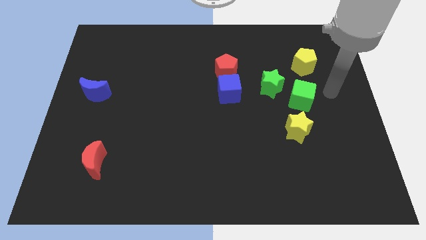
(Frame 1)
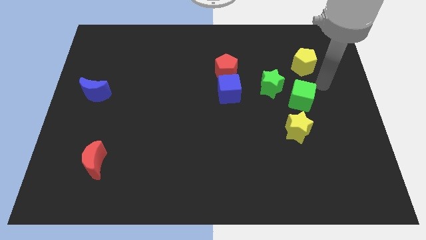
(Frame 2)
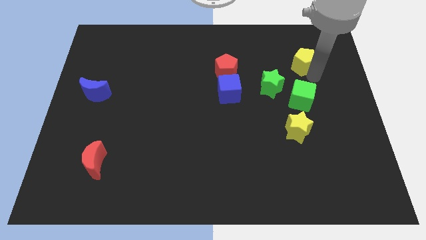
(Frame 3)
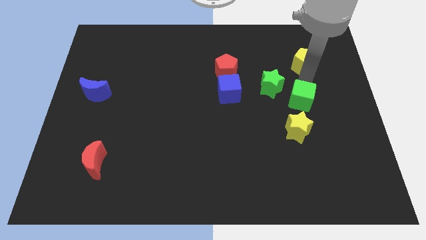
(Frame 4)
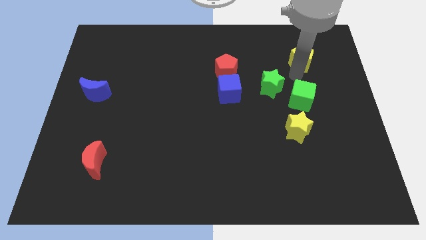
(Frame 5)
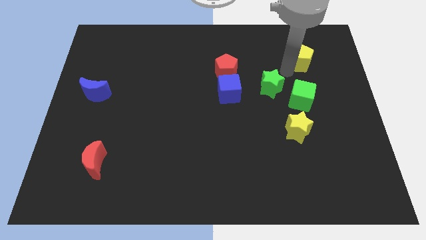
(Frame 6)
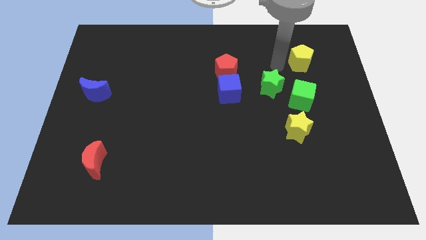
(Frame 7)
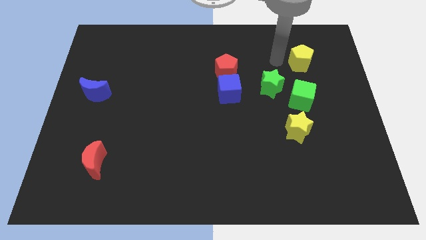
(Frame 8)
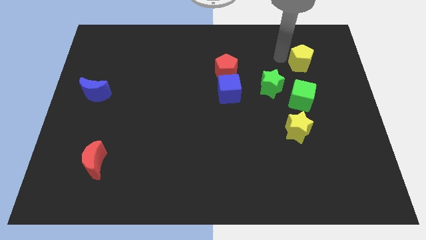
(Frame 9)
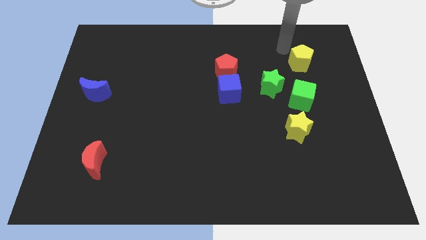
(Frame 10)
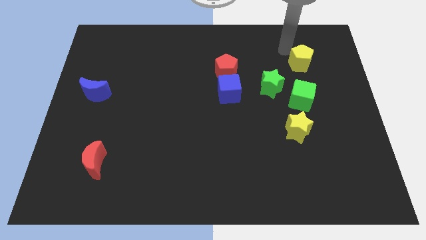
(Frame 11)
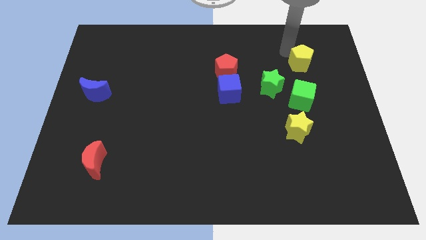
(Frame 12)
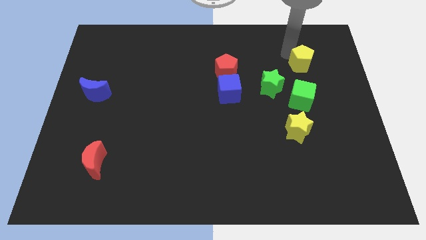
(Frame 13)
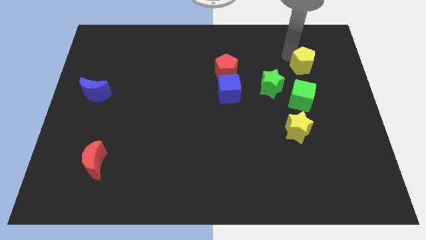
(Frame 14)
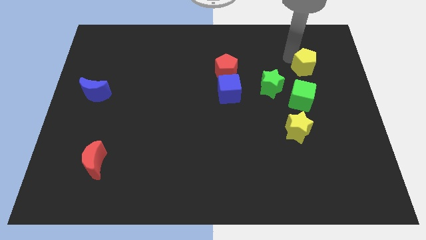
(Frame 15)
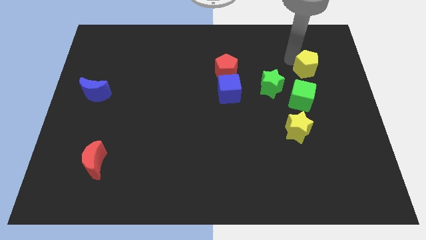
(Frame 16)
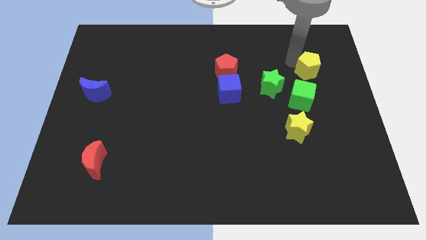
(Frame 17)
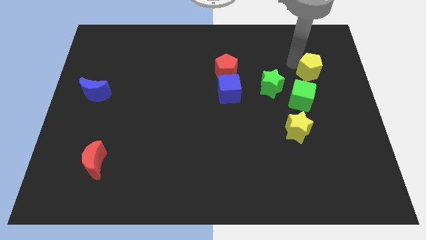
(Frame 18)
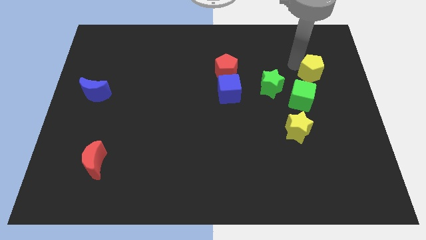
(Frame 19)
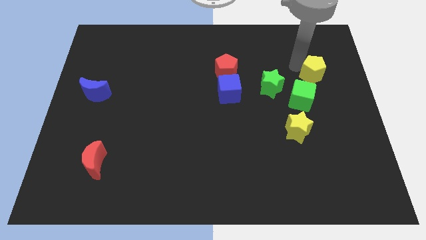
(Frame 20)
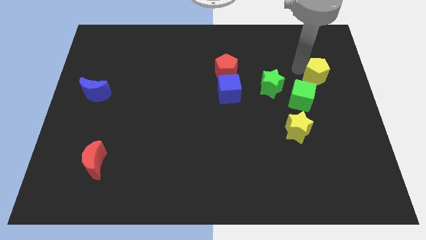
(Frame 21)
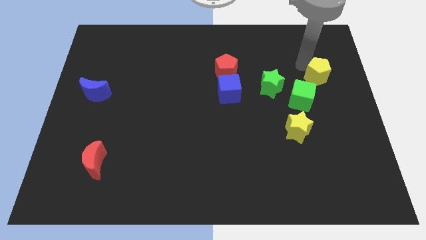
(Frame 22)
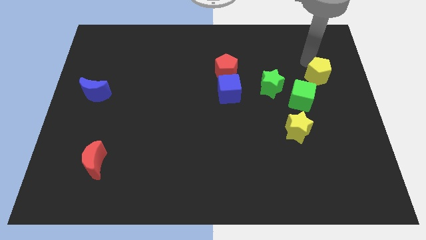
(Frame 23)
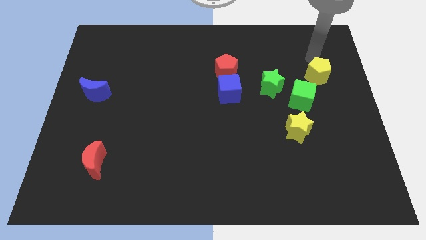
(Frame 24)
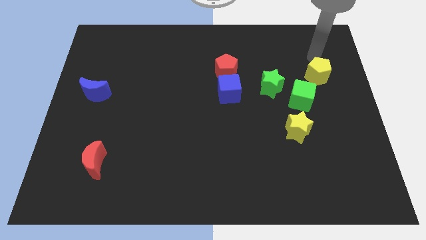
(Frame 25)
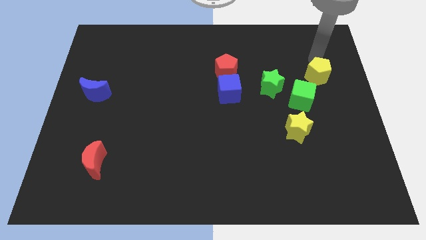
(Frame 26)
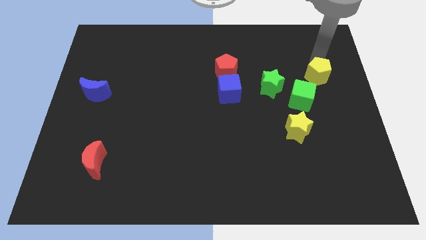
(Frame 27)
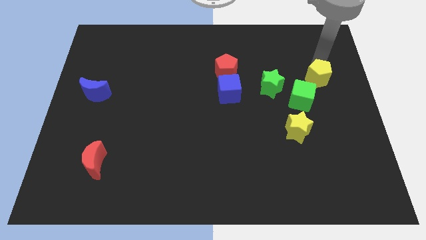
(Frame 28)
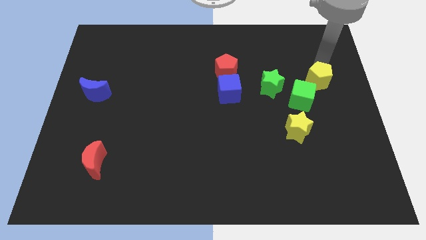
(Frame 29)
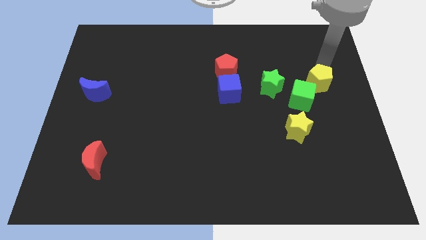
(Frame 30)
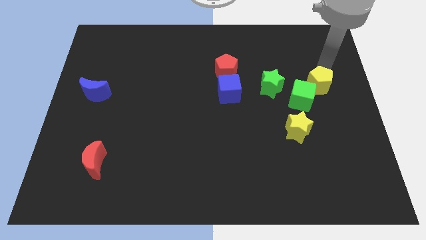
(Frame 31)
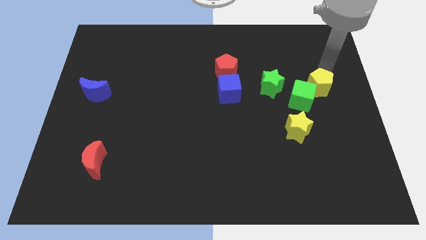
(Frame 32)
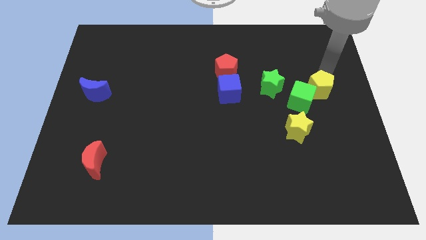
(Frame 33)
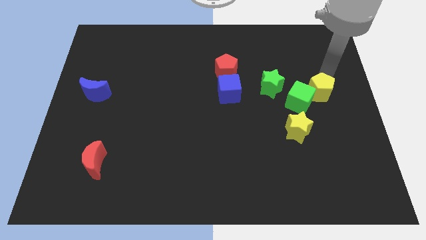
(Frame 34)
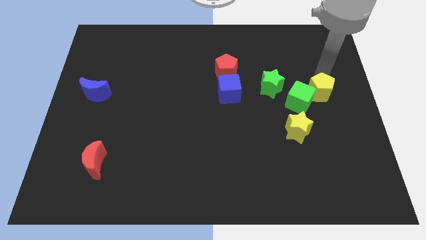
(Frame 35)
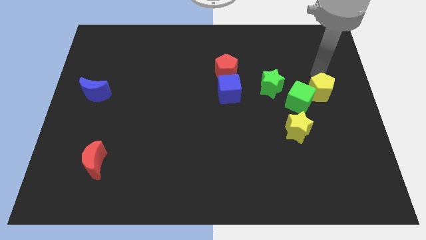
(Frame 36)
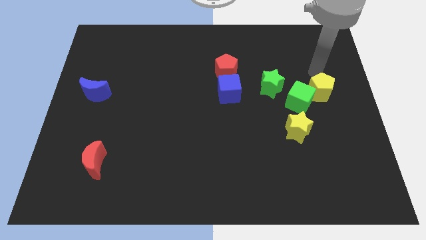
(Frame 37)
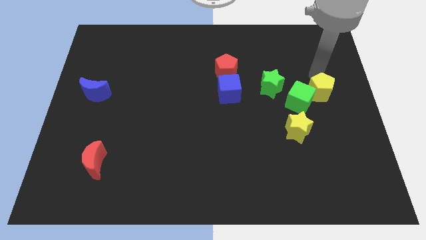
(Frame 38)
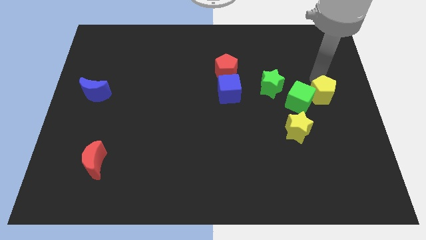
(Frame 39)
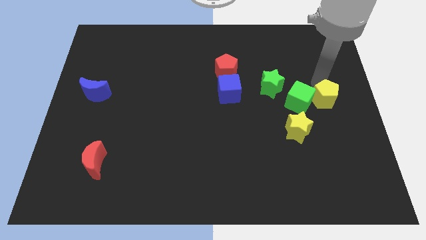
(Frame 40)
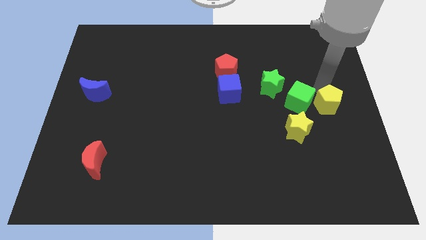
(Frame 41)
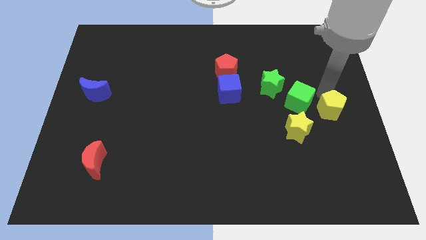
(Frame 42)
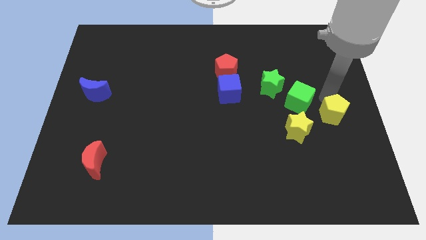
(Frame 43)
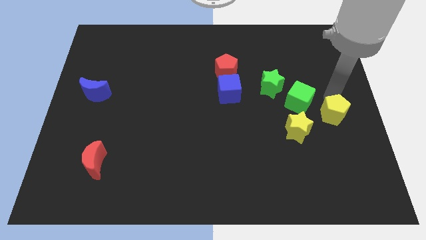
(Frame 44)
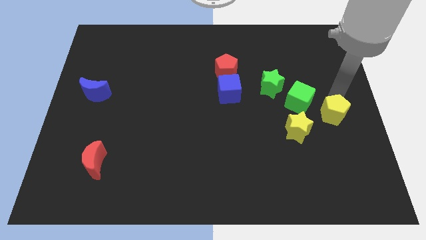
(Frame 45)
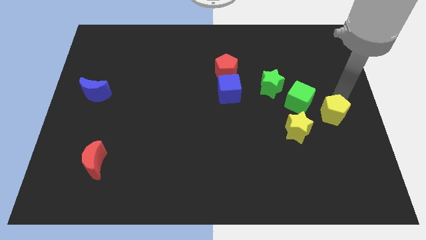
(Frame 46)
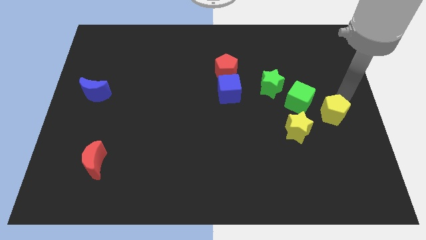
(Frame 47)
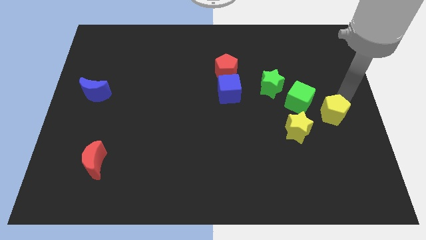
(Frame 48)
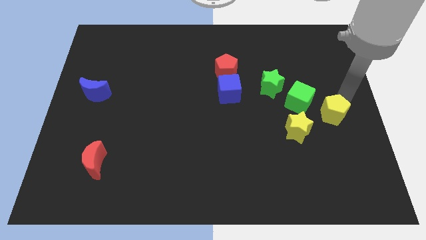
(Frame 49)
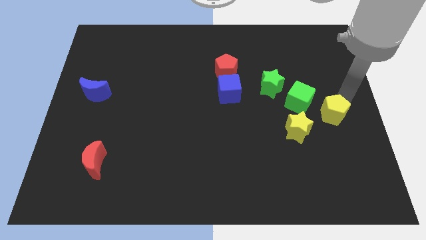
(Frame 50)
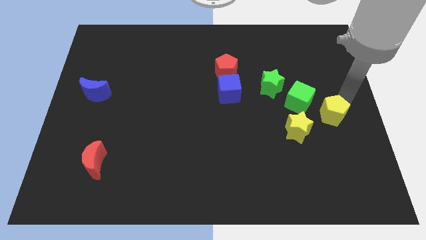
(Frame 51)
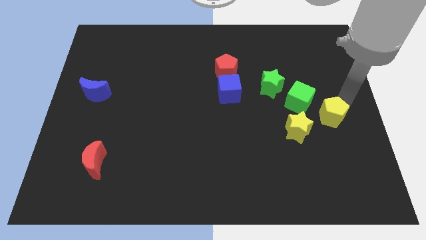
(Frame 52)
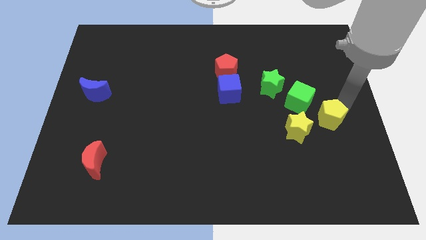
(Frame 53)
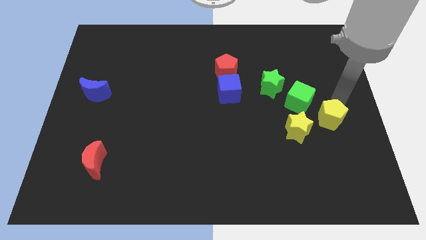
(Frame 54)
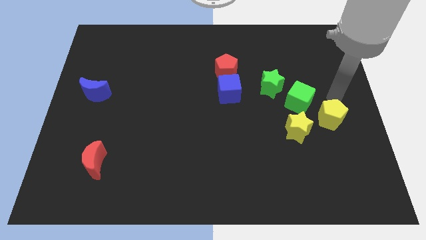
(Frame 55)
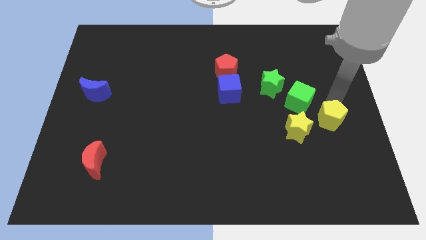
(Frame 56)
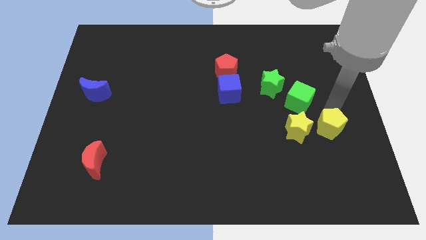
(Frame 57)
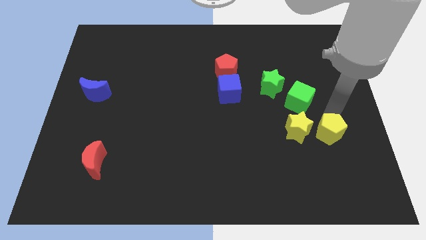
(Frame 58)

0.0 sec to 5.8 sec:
push the yellow pentagon down

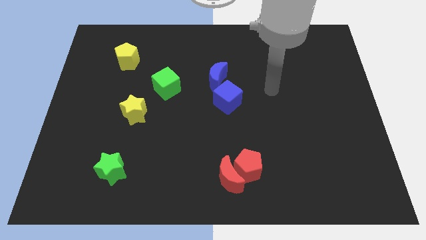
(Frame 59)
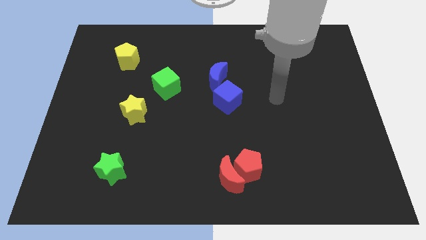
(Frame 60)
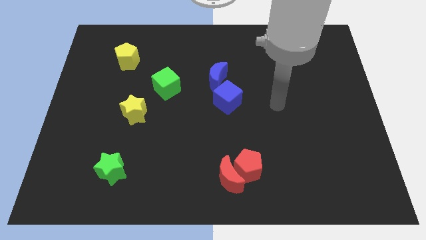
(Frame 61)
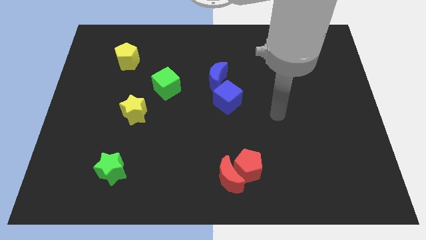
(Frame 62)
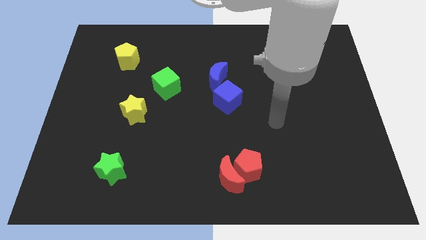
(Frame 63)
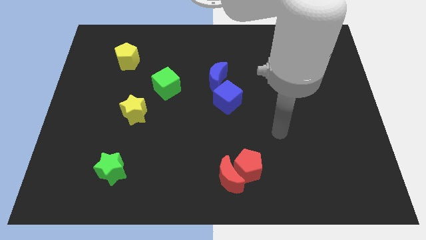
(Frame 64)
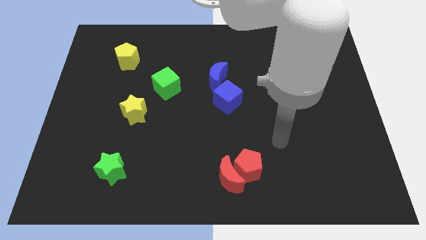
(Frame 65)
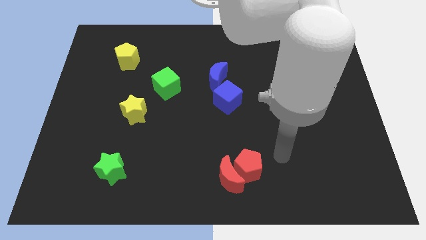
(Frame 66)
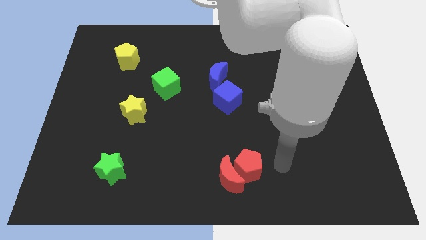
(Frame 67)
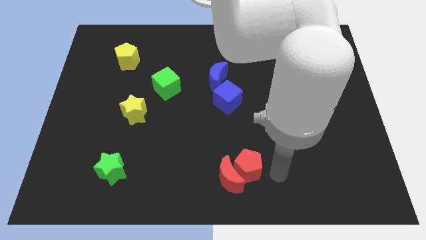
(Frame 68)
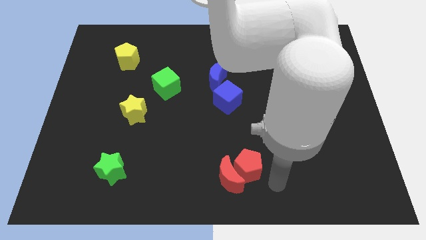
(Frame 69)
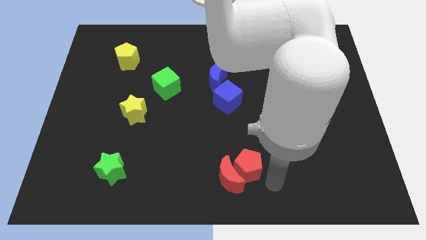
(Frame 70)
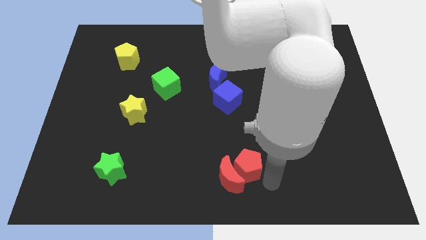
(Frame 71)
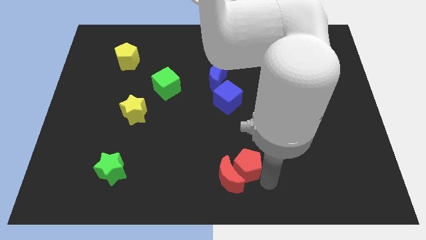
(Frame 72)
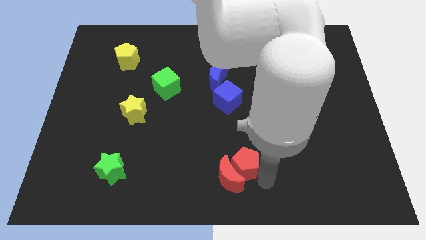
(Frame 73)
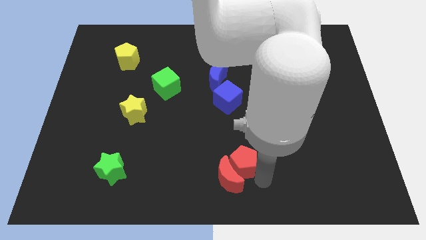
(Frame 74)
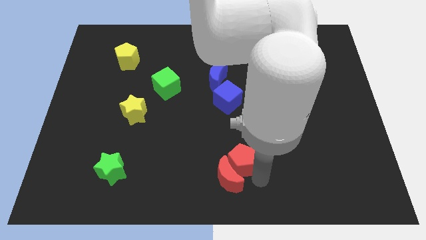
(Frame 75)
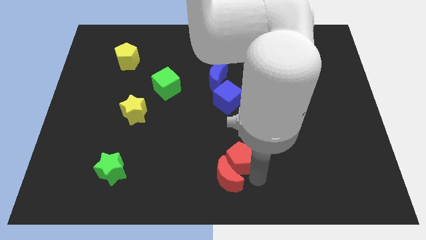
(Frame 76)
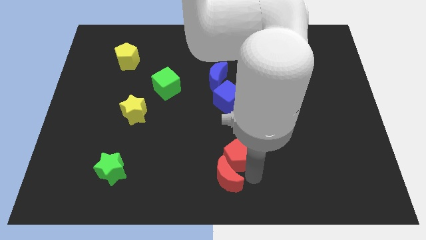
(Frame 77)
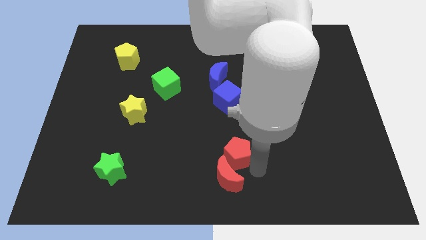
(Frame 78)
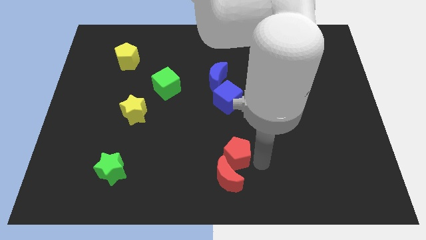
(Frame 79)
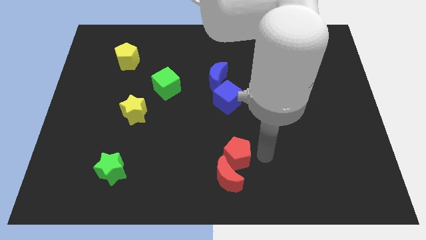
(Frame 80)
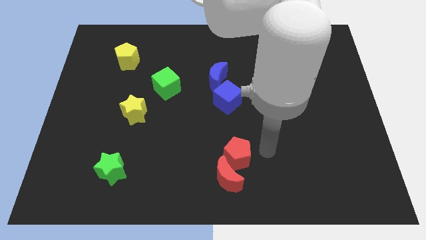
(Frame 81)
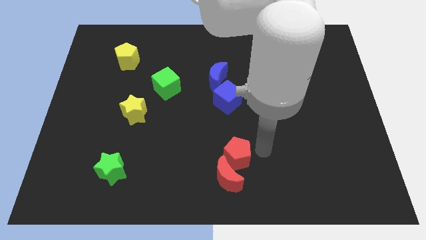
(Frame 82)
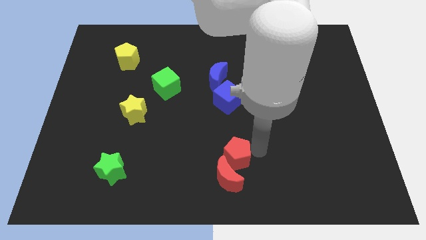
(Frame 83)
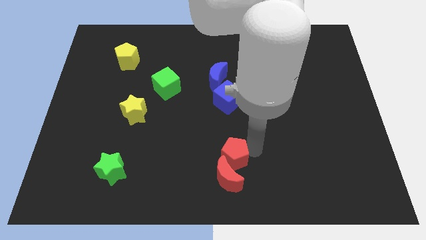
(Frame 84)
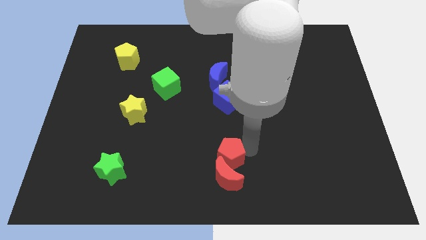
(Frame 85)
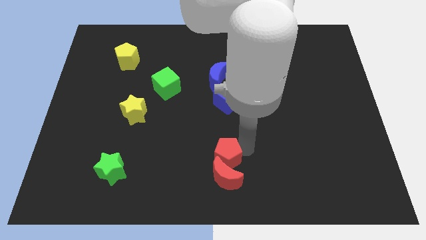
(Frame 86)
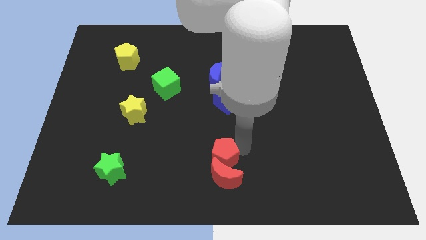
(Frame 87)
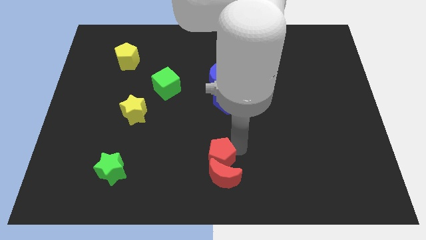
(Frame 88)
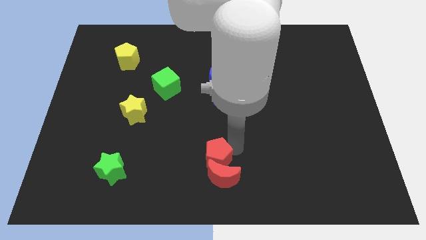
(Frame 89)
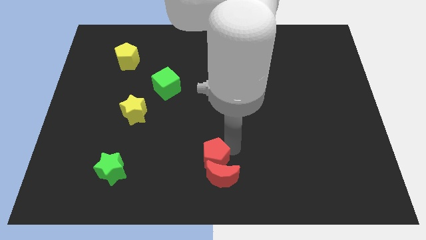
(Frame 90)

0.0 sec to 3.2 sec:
slightly slide the red pentagon to the left
